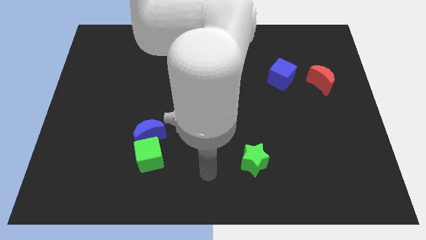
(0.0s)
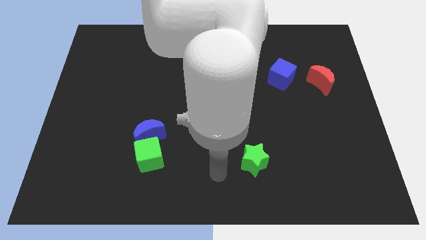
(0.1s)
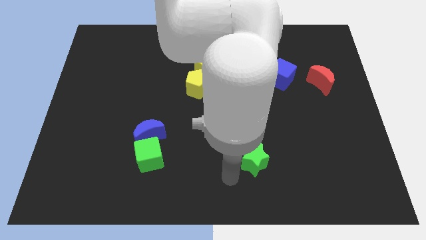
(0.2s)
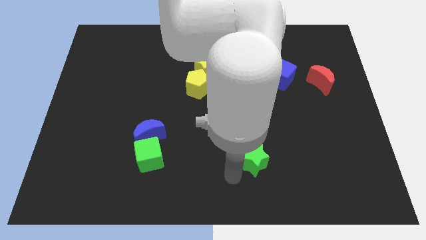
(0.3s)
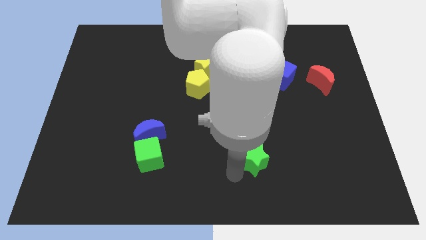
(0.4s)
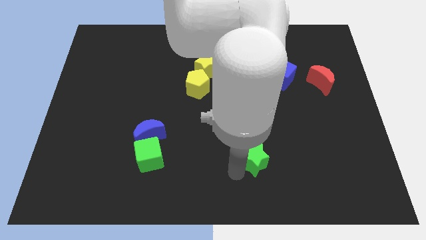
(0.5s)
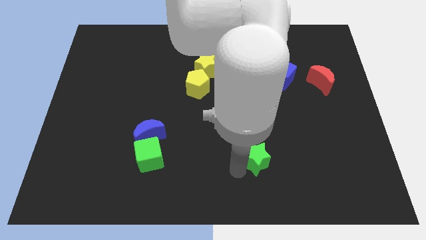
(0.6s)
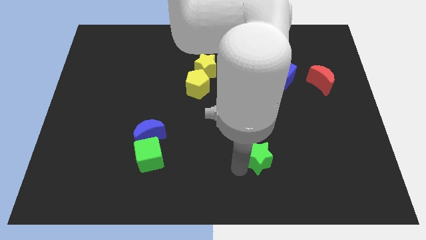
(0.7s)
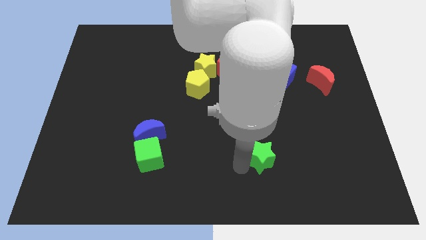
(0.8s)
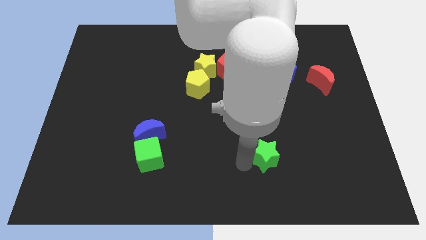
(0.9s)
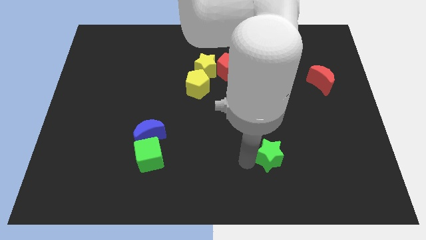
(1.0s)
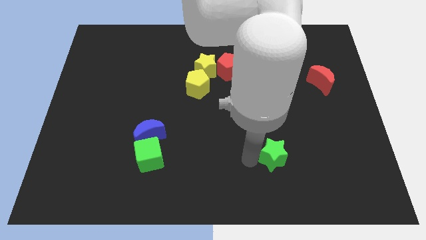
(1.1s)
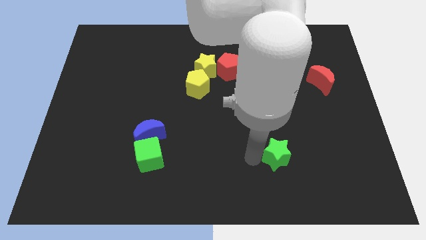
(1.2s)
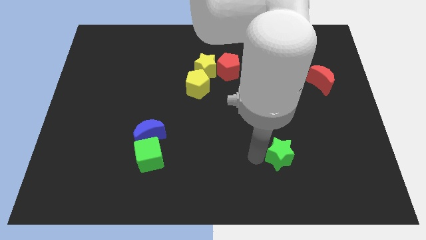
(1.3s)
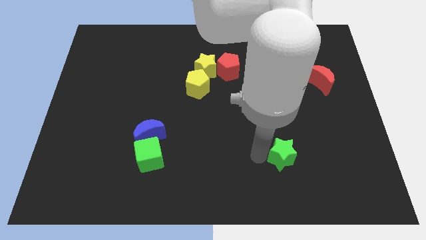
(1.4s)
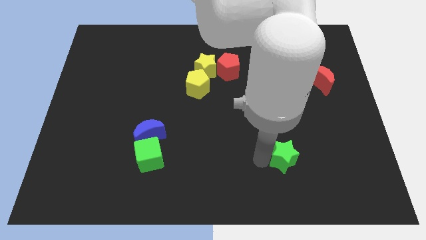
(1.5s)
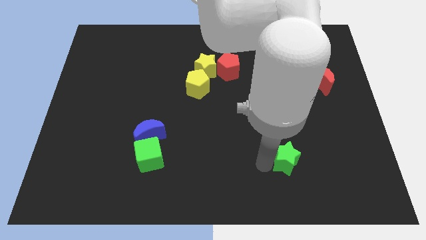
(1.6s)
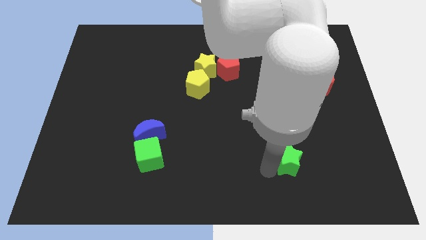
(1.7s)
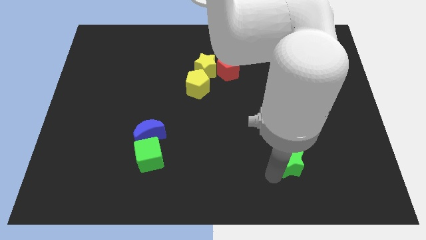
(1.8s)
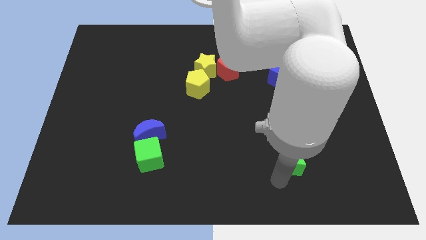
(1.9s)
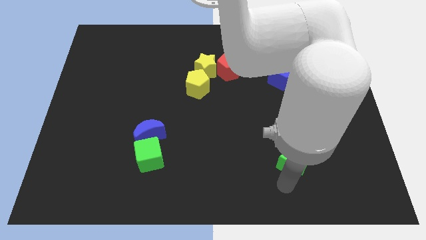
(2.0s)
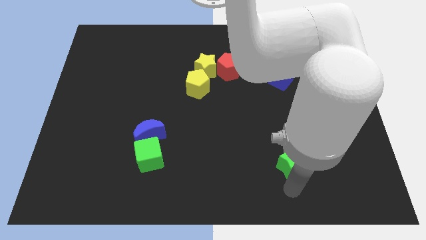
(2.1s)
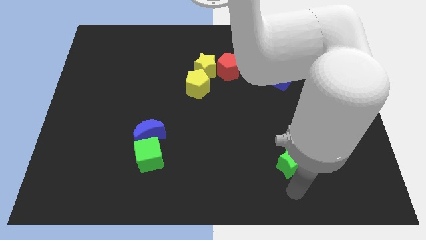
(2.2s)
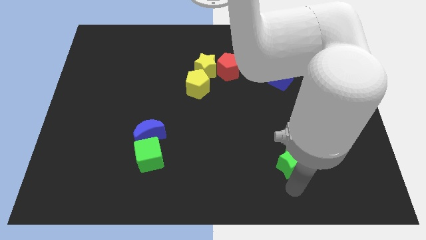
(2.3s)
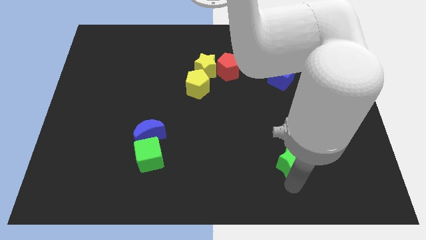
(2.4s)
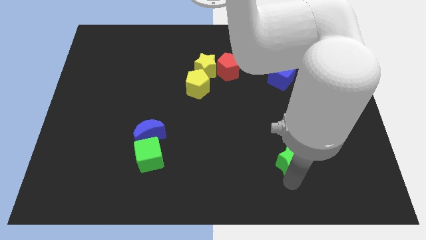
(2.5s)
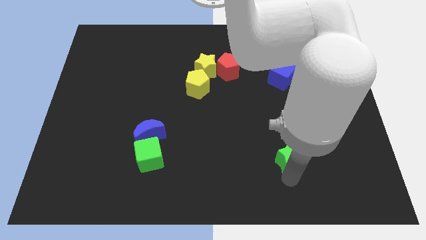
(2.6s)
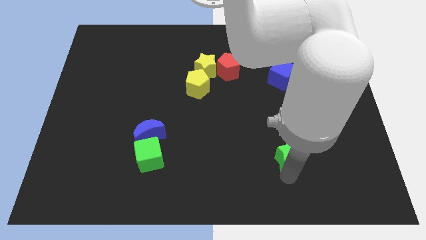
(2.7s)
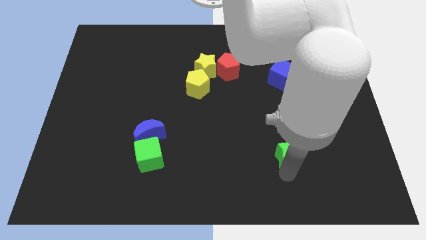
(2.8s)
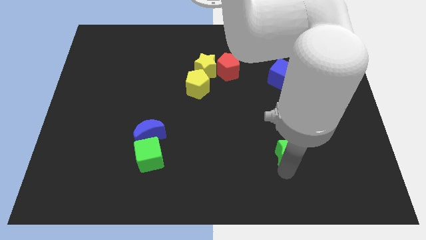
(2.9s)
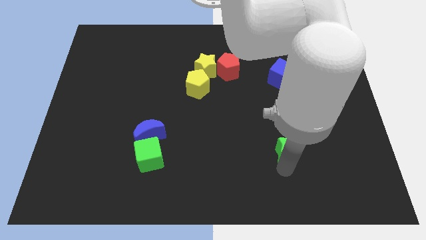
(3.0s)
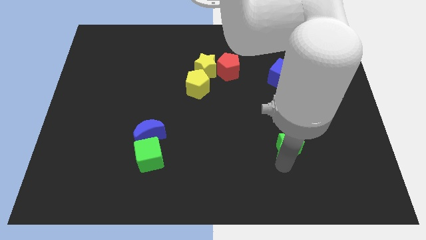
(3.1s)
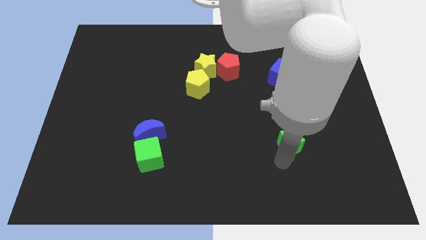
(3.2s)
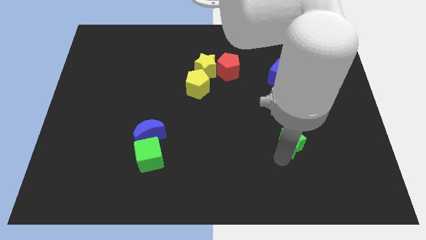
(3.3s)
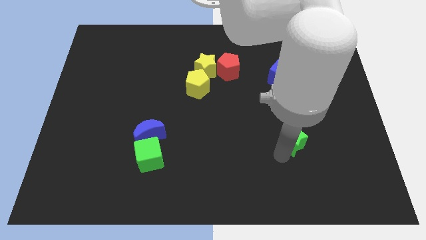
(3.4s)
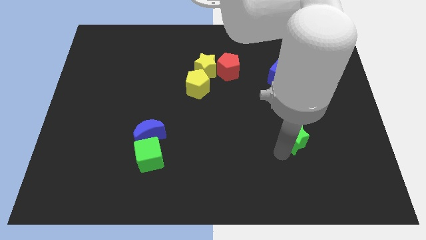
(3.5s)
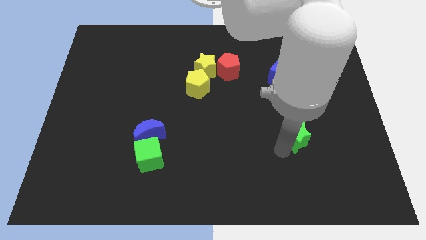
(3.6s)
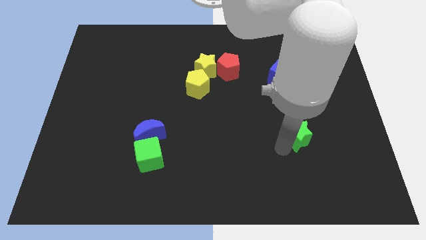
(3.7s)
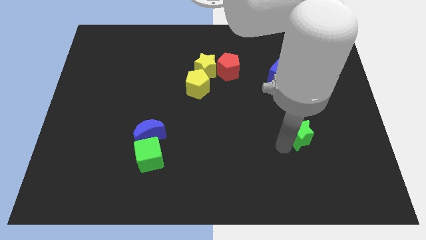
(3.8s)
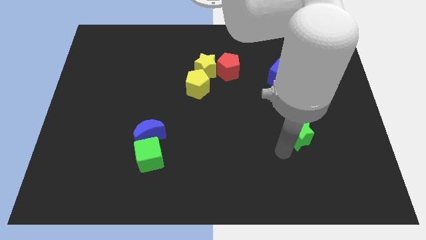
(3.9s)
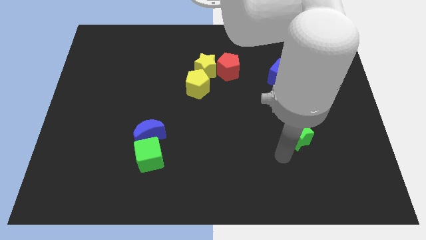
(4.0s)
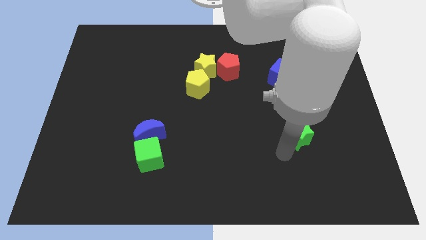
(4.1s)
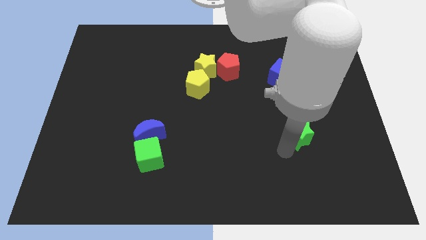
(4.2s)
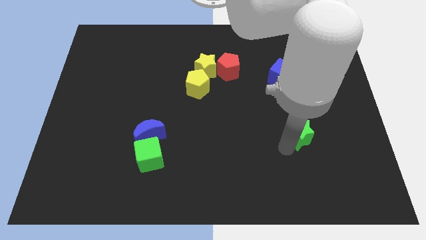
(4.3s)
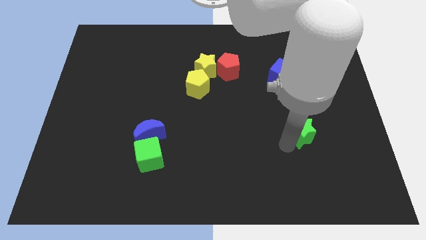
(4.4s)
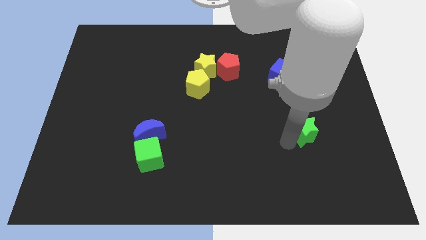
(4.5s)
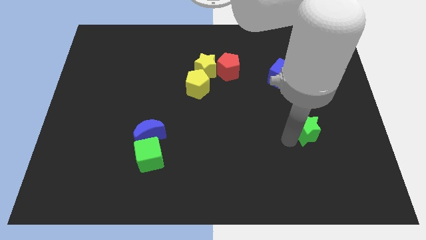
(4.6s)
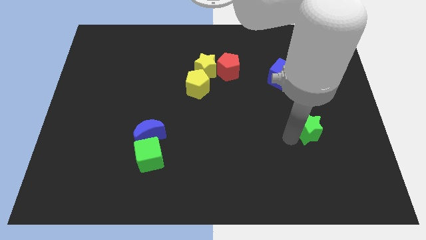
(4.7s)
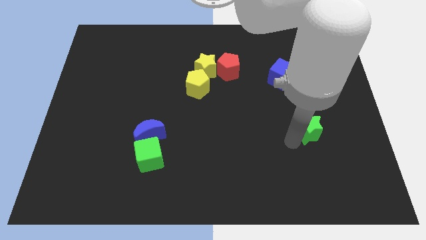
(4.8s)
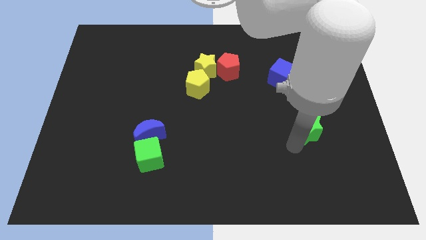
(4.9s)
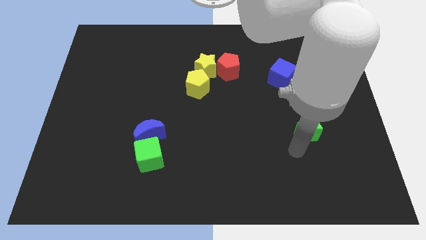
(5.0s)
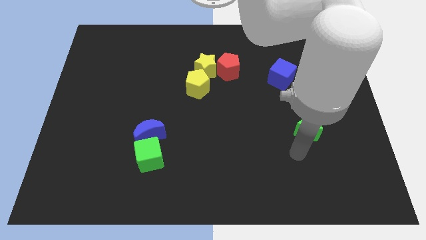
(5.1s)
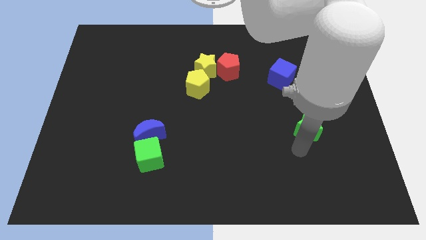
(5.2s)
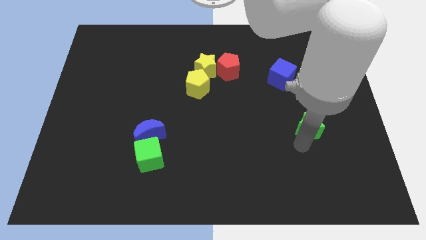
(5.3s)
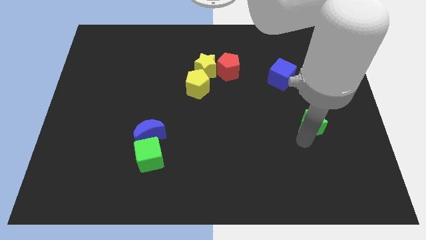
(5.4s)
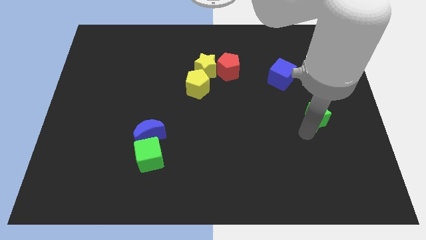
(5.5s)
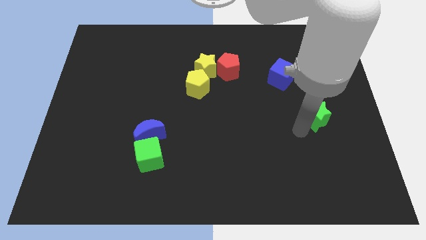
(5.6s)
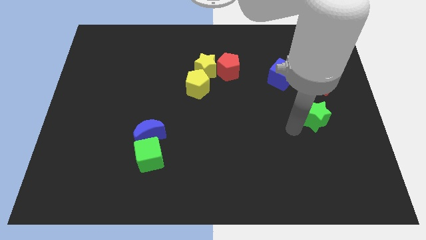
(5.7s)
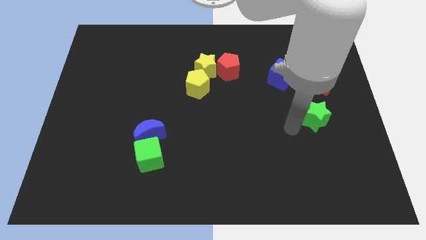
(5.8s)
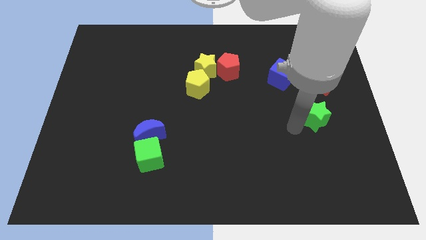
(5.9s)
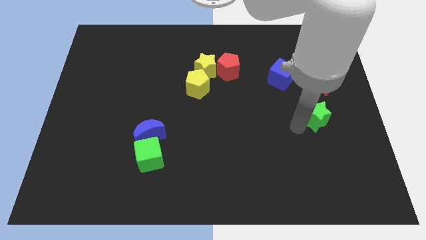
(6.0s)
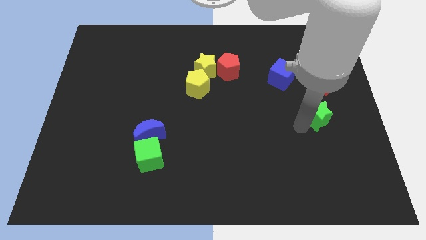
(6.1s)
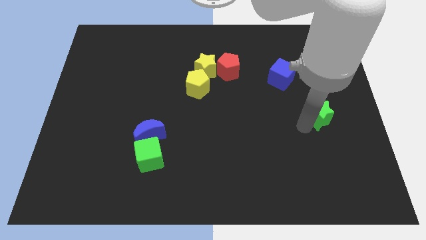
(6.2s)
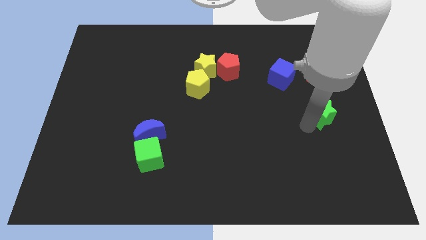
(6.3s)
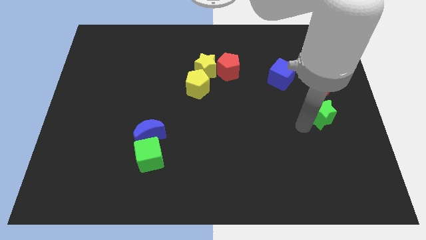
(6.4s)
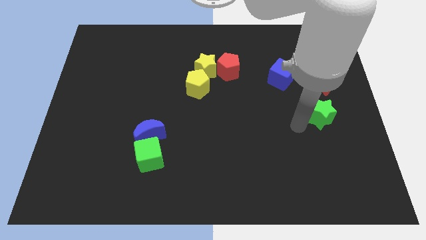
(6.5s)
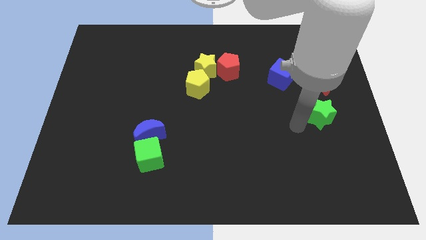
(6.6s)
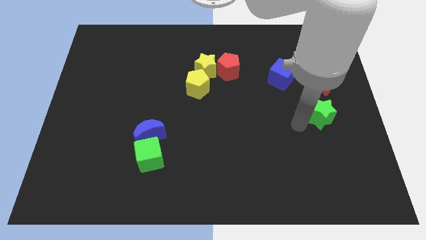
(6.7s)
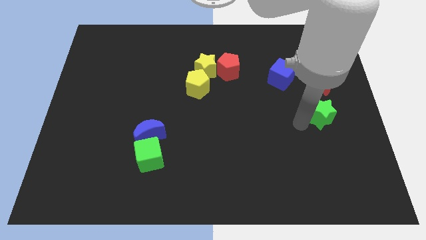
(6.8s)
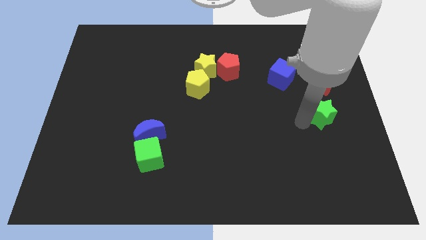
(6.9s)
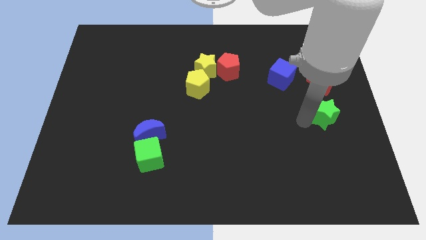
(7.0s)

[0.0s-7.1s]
slide the green star to the right side
